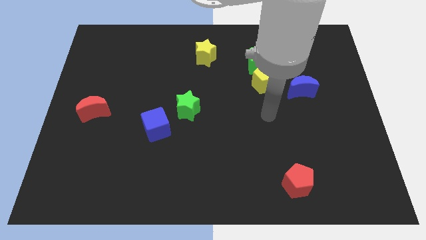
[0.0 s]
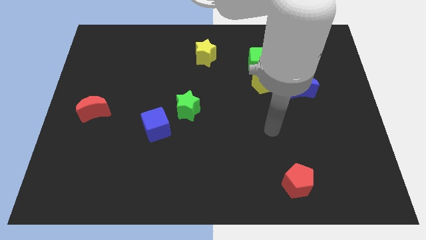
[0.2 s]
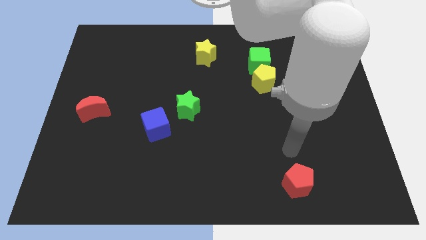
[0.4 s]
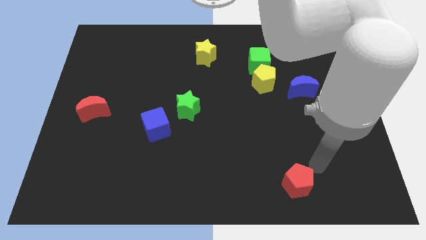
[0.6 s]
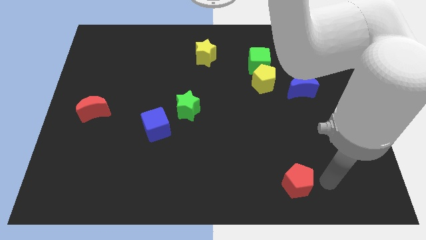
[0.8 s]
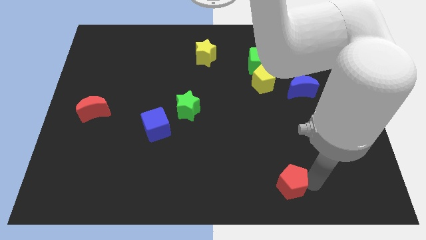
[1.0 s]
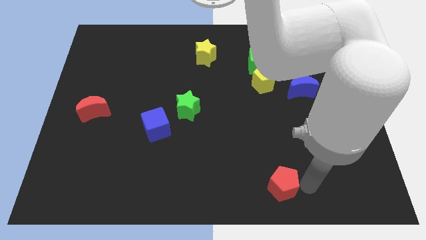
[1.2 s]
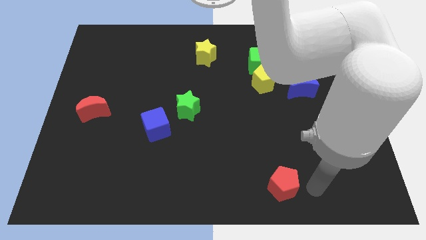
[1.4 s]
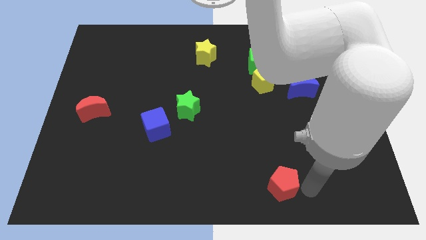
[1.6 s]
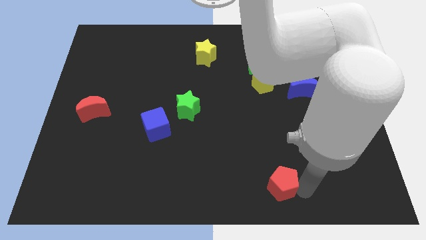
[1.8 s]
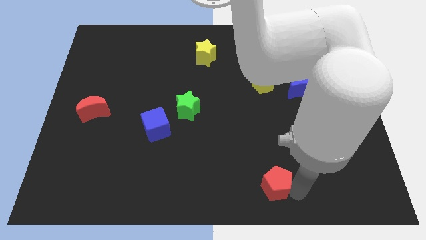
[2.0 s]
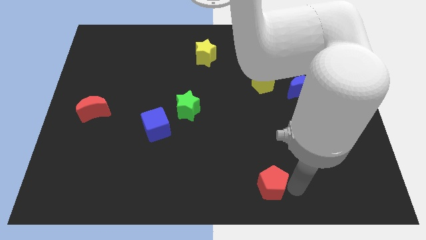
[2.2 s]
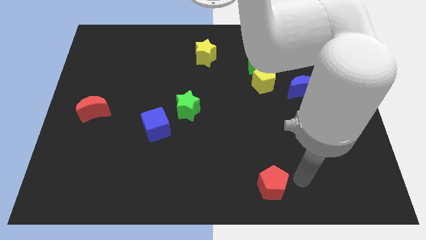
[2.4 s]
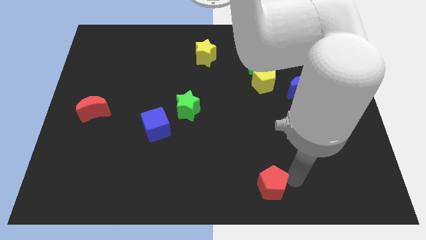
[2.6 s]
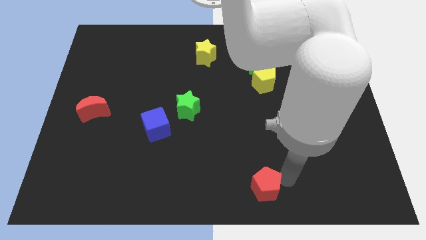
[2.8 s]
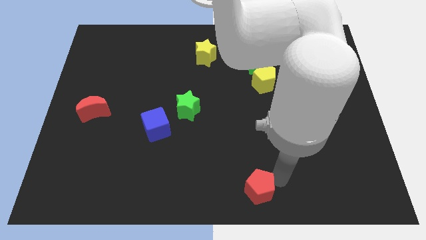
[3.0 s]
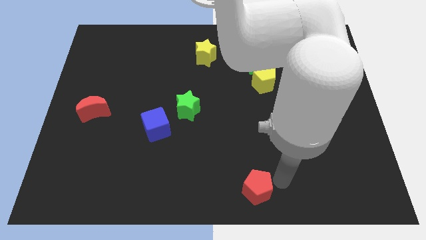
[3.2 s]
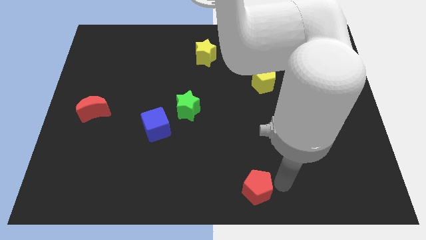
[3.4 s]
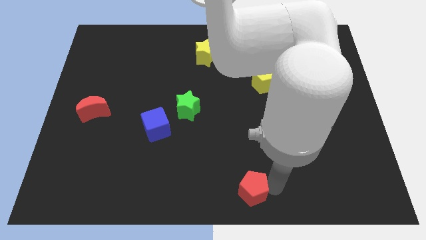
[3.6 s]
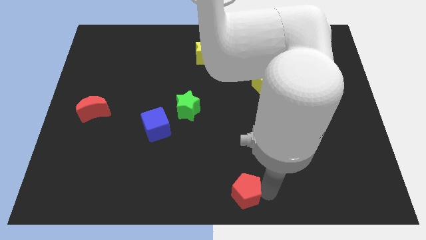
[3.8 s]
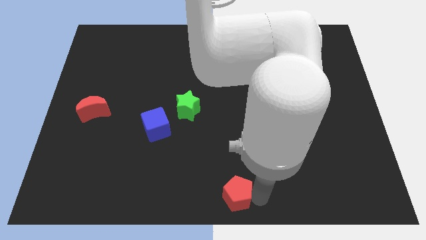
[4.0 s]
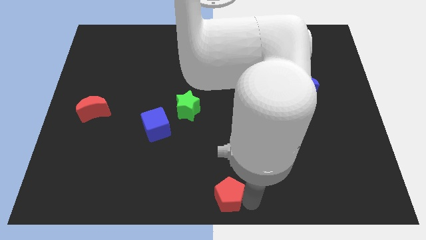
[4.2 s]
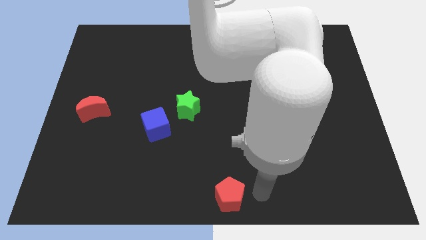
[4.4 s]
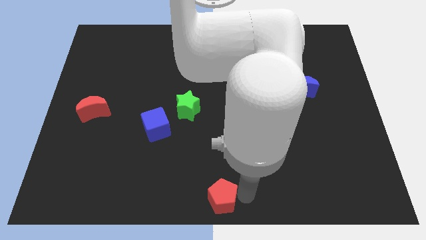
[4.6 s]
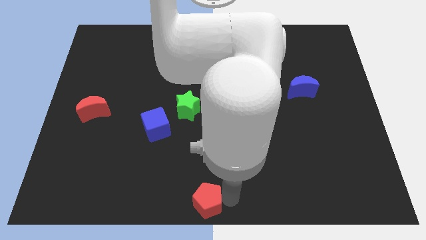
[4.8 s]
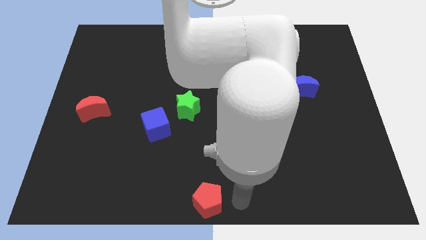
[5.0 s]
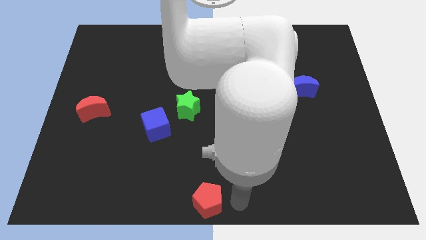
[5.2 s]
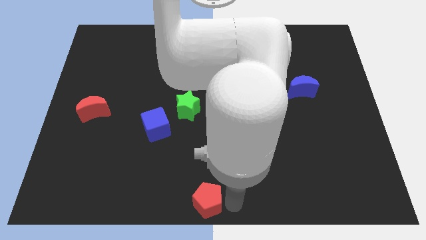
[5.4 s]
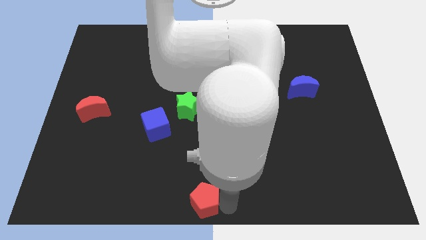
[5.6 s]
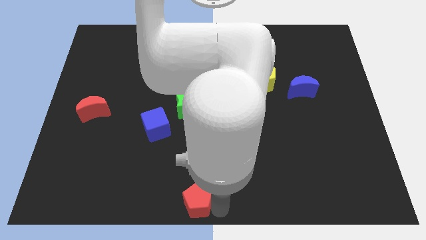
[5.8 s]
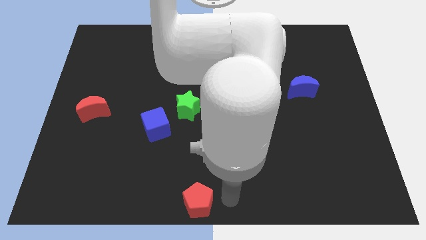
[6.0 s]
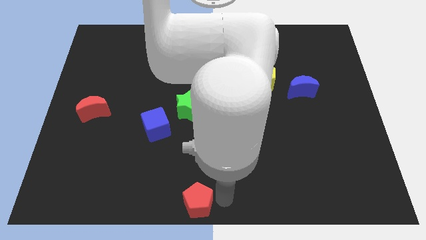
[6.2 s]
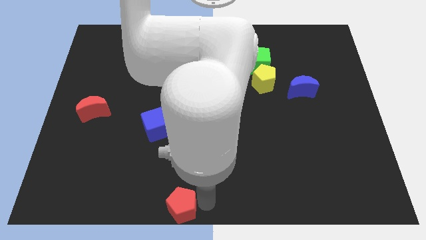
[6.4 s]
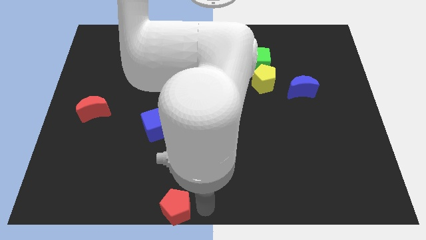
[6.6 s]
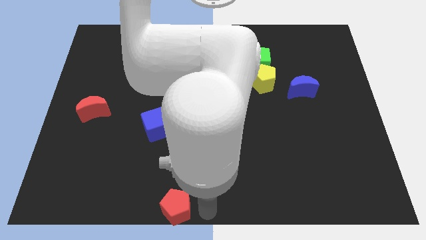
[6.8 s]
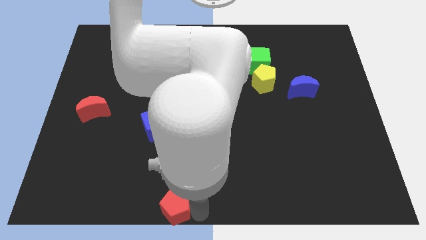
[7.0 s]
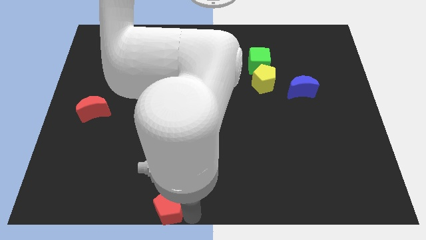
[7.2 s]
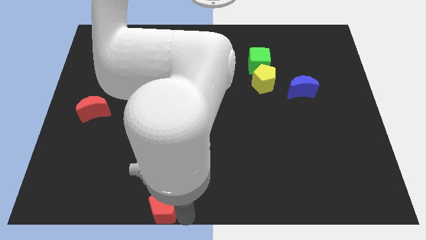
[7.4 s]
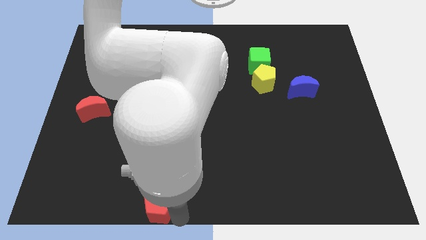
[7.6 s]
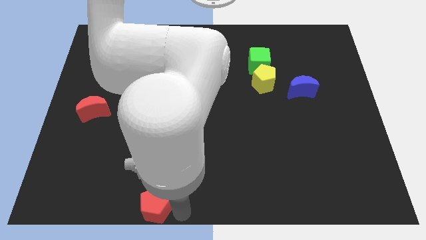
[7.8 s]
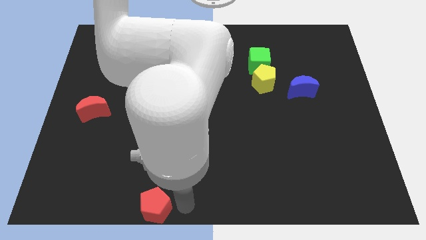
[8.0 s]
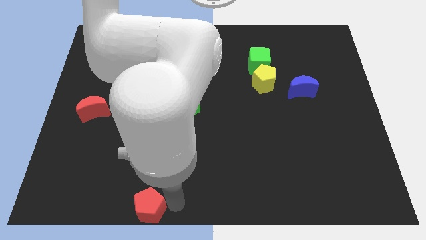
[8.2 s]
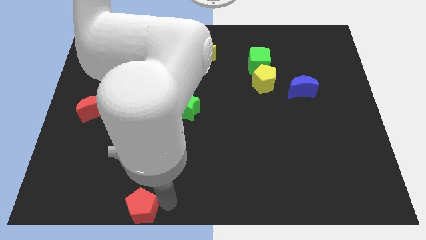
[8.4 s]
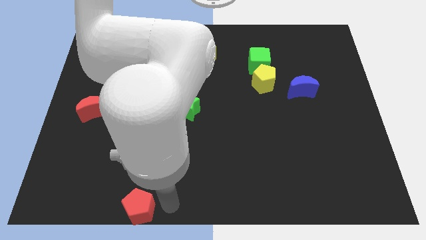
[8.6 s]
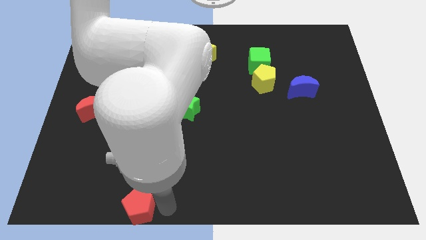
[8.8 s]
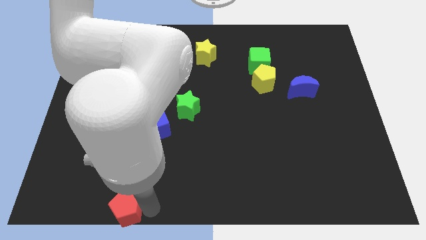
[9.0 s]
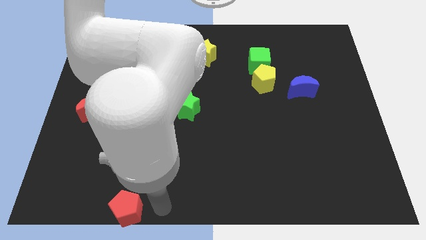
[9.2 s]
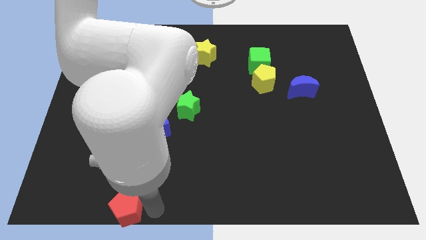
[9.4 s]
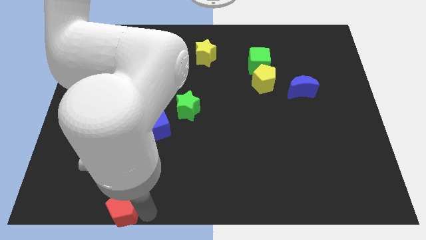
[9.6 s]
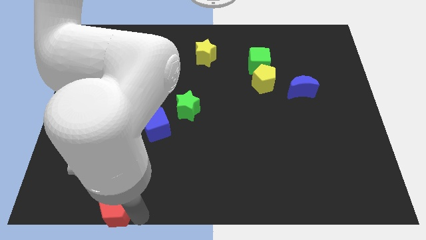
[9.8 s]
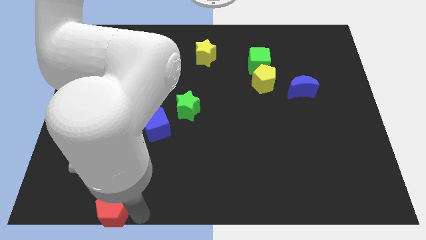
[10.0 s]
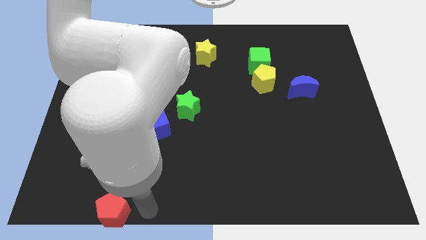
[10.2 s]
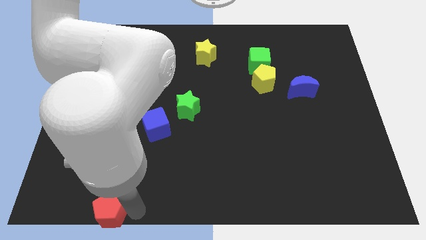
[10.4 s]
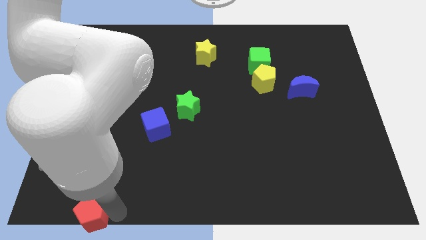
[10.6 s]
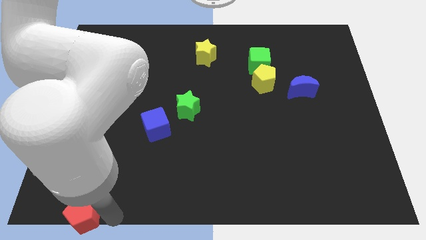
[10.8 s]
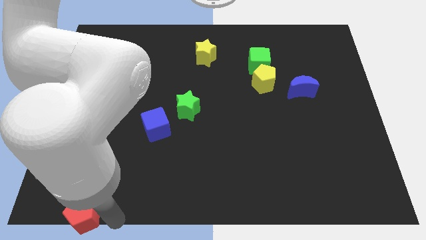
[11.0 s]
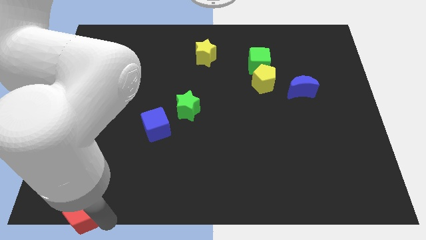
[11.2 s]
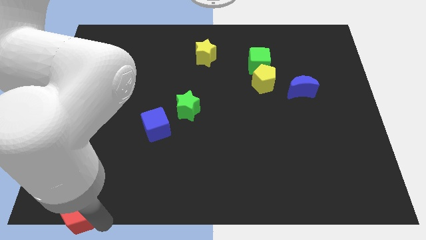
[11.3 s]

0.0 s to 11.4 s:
move the red pentagon to the lower left corner

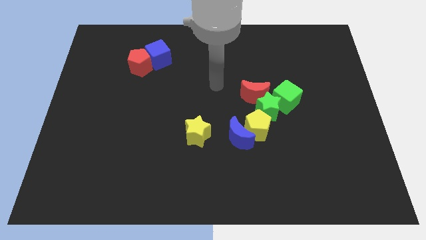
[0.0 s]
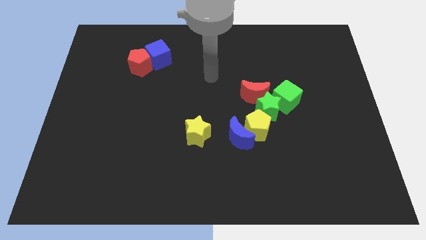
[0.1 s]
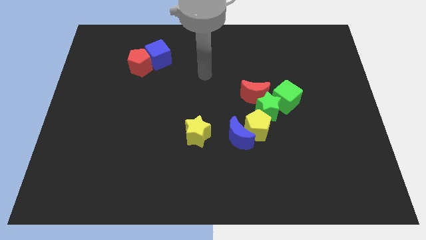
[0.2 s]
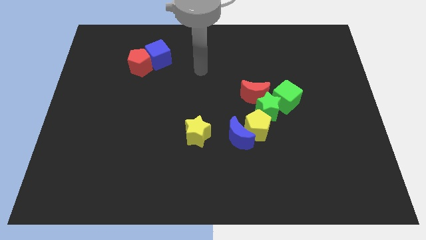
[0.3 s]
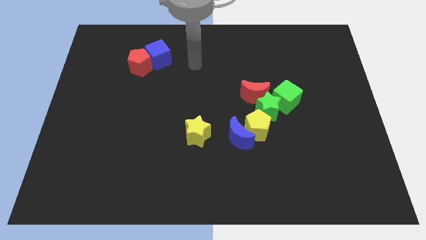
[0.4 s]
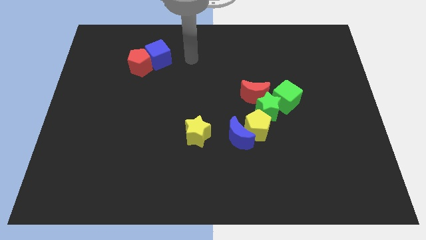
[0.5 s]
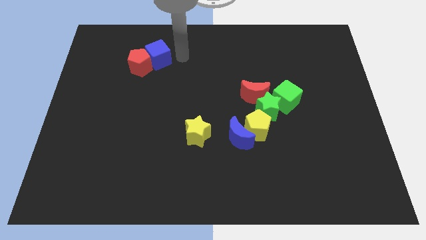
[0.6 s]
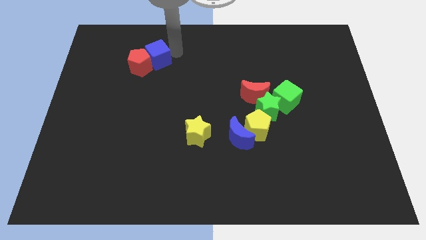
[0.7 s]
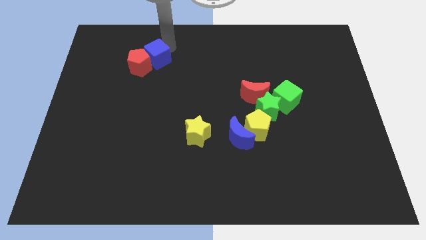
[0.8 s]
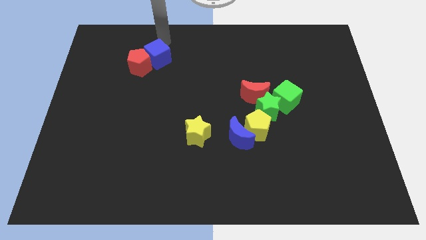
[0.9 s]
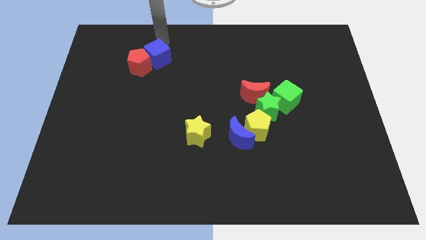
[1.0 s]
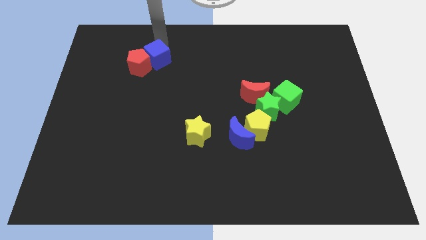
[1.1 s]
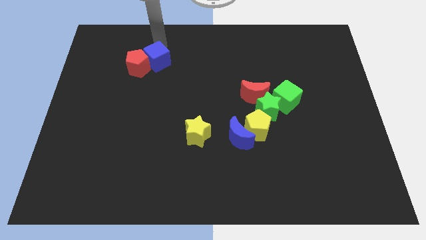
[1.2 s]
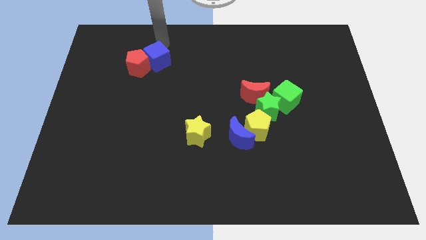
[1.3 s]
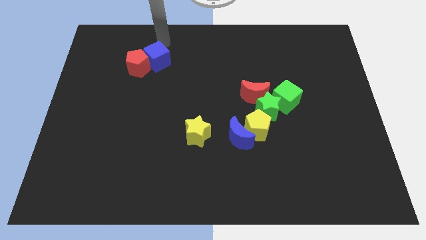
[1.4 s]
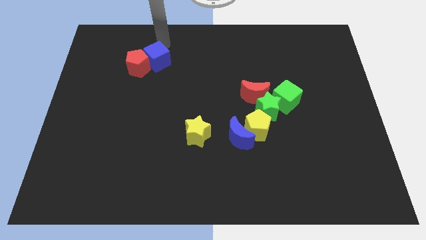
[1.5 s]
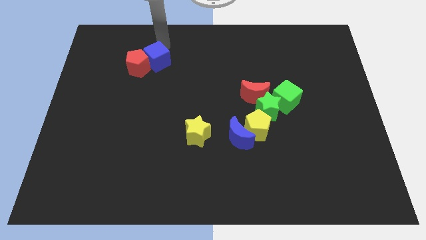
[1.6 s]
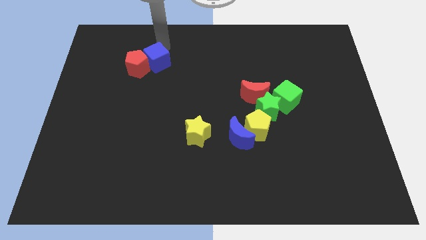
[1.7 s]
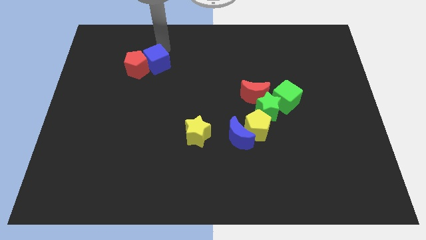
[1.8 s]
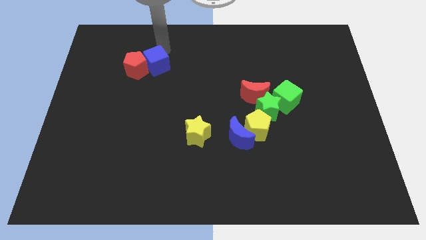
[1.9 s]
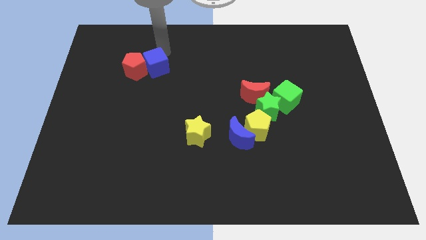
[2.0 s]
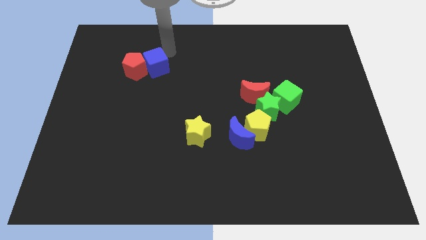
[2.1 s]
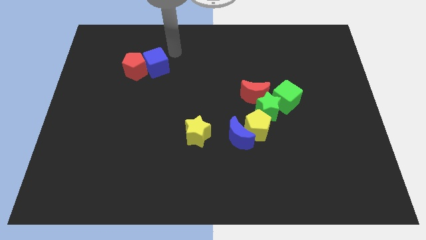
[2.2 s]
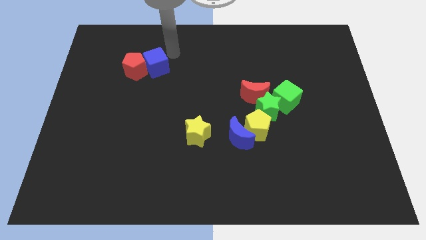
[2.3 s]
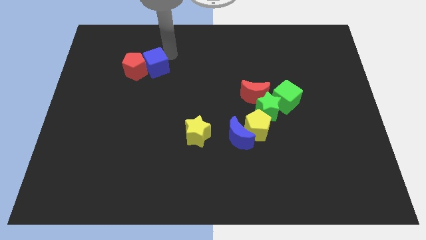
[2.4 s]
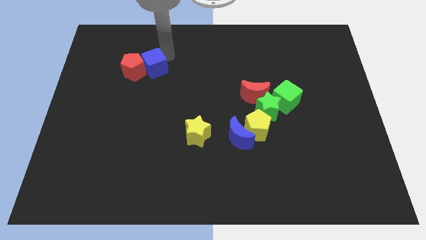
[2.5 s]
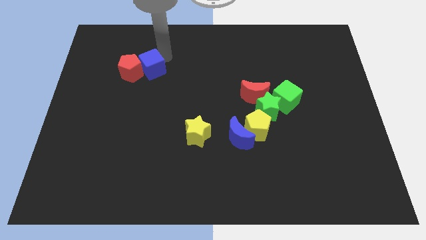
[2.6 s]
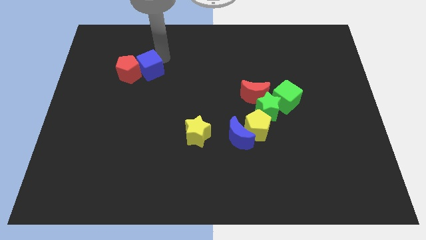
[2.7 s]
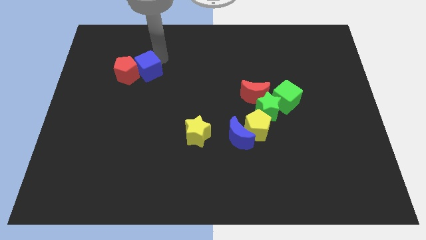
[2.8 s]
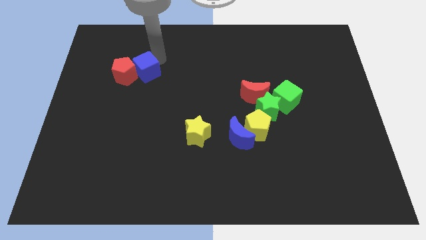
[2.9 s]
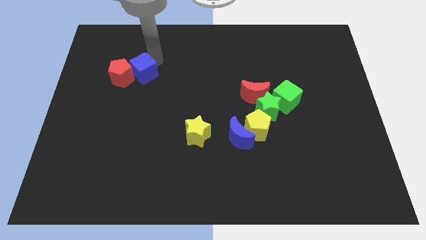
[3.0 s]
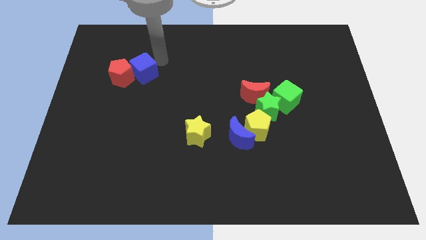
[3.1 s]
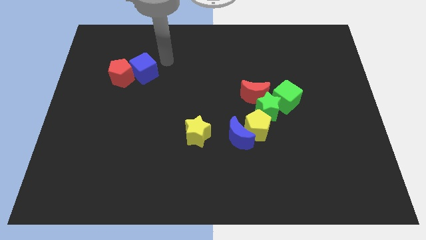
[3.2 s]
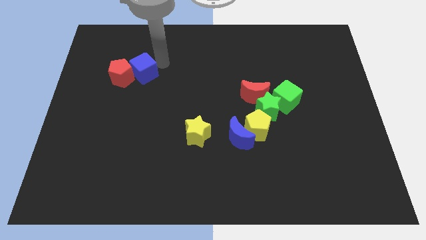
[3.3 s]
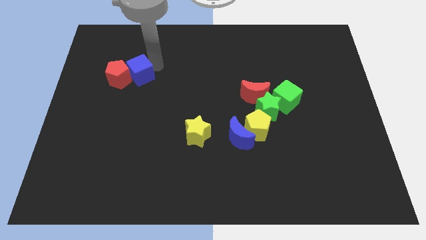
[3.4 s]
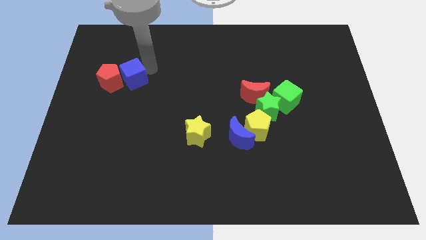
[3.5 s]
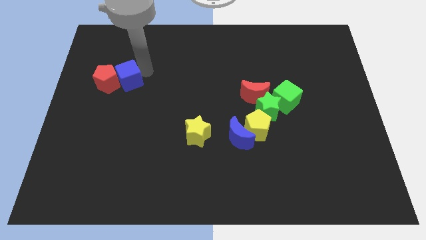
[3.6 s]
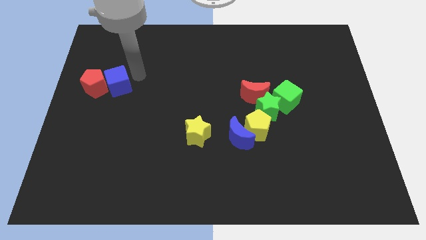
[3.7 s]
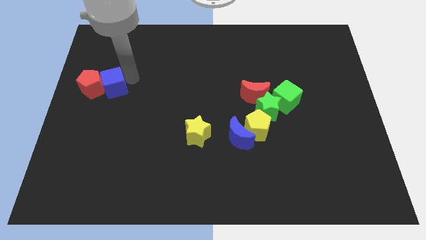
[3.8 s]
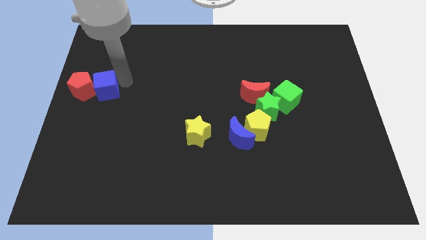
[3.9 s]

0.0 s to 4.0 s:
push the blue cube to the left side
